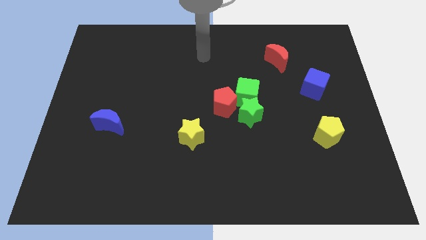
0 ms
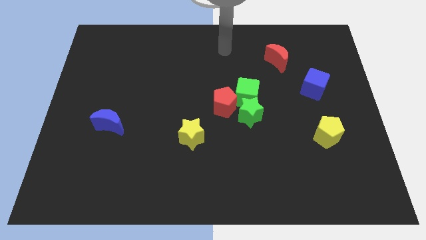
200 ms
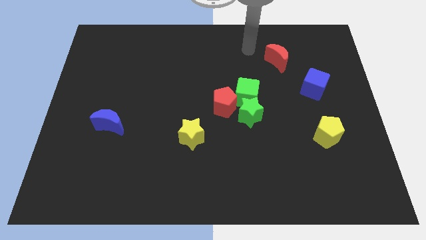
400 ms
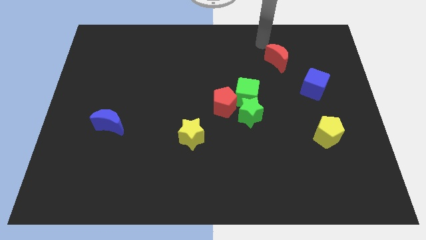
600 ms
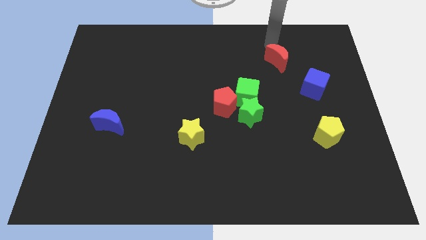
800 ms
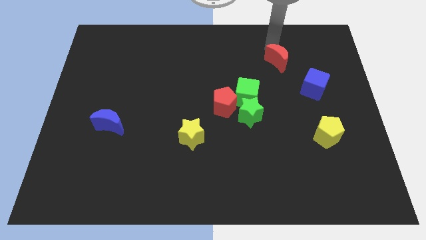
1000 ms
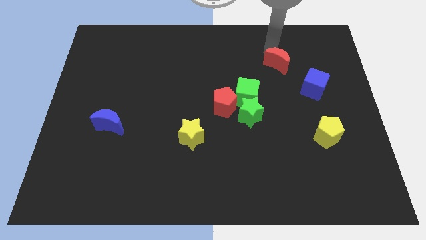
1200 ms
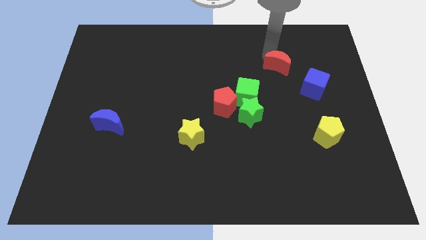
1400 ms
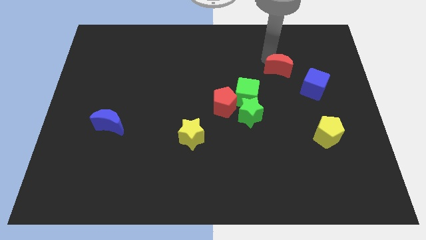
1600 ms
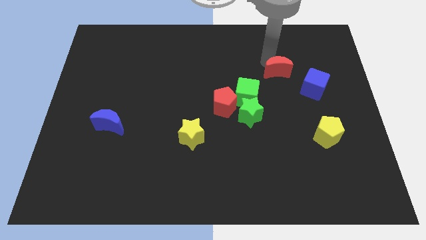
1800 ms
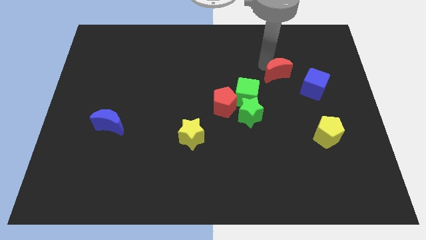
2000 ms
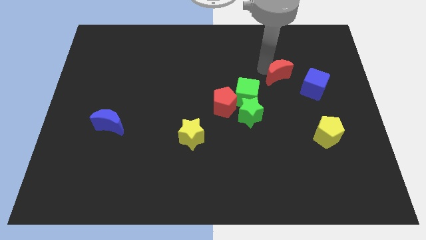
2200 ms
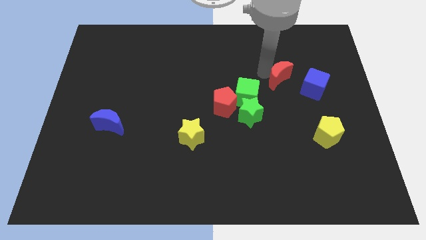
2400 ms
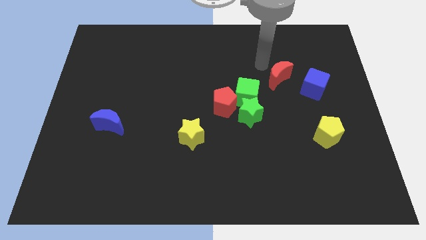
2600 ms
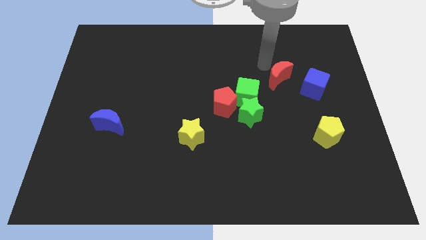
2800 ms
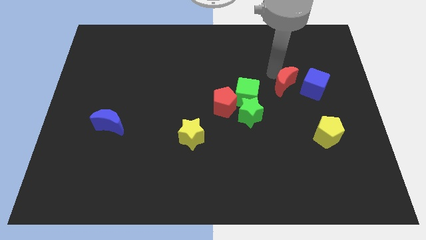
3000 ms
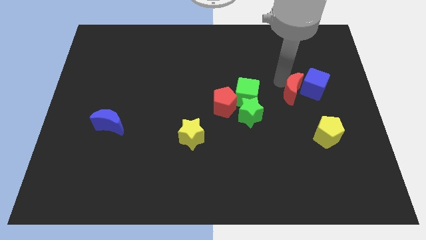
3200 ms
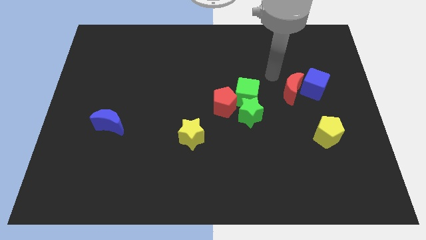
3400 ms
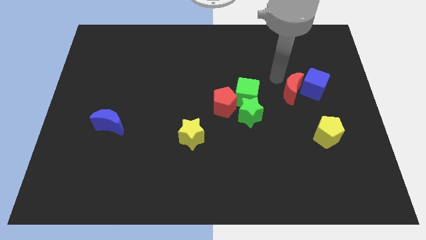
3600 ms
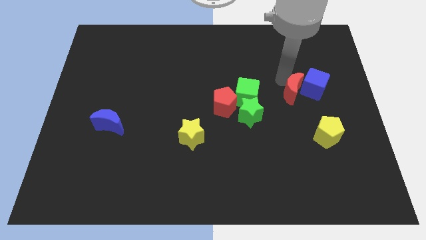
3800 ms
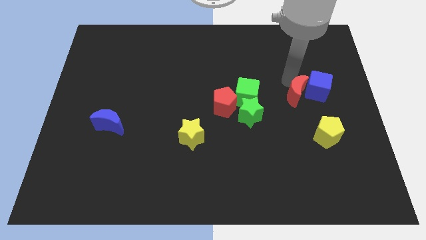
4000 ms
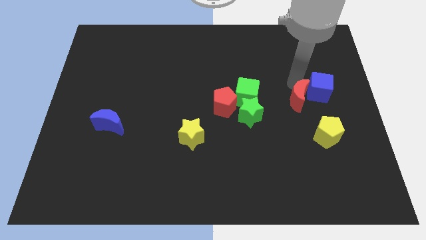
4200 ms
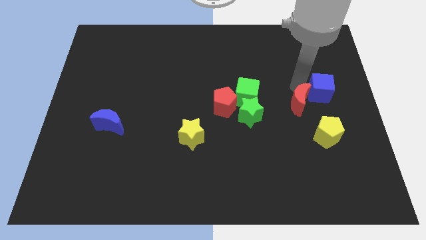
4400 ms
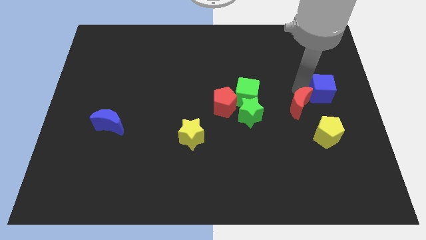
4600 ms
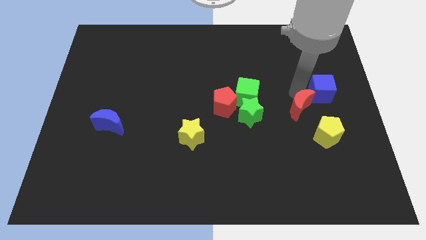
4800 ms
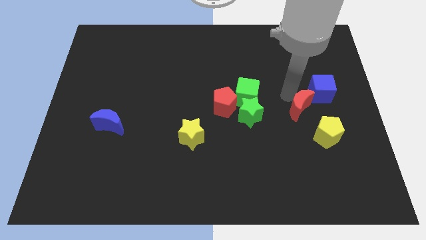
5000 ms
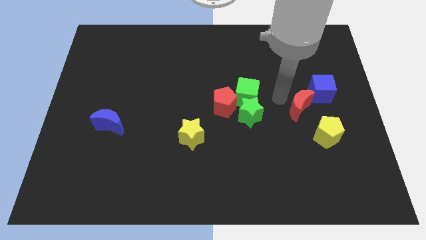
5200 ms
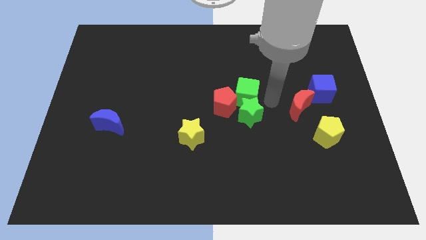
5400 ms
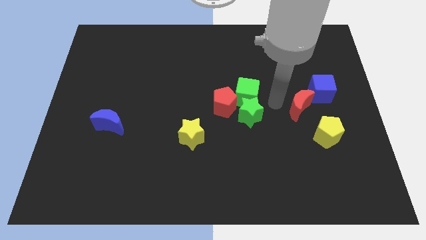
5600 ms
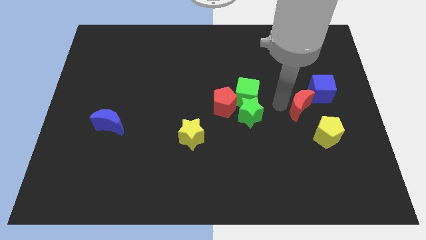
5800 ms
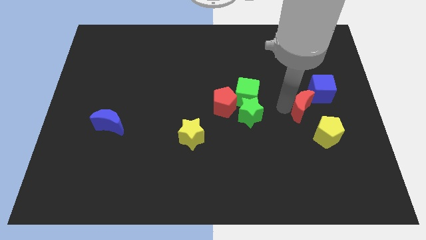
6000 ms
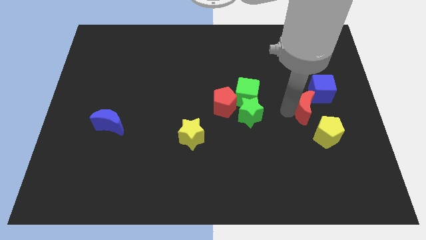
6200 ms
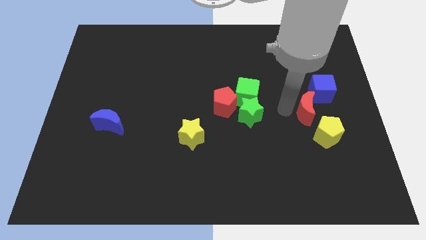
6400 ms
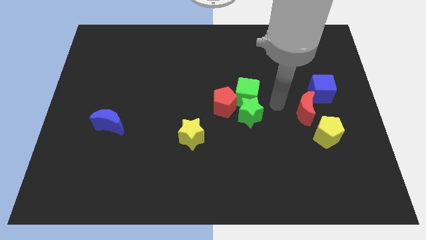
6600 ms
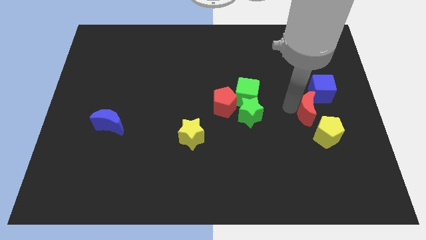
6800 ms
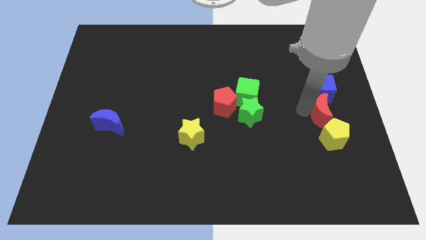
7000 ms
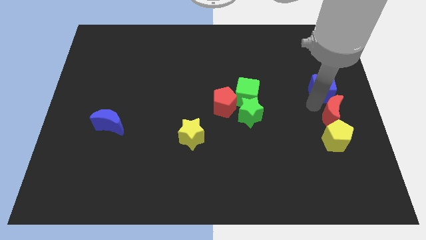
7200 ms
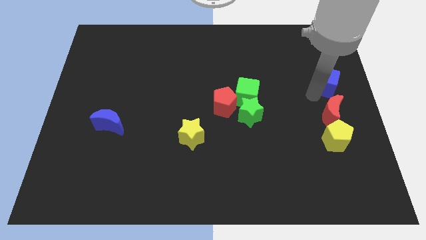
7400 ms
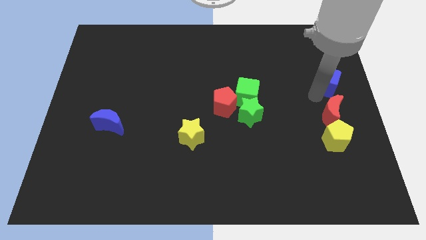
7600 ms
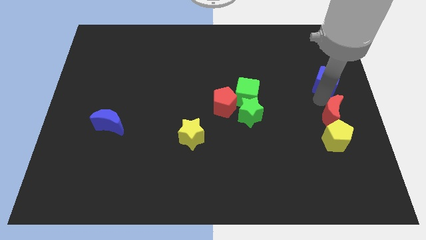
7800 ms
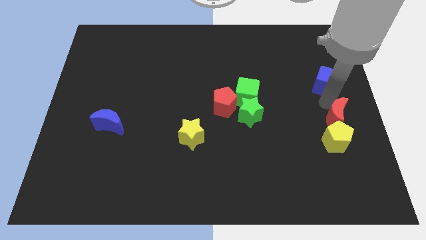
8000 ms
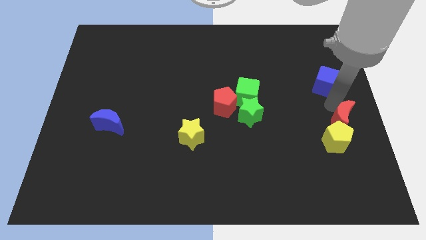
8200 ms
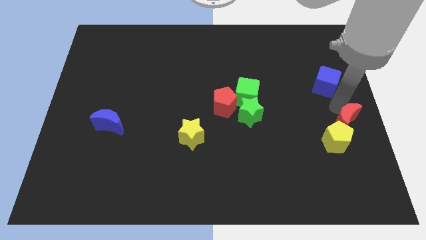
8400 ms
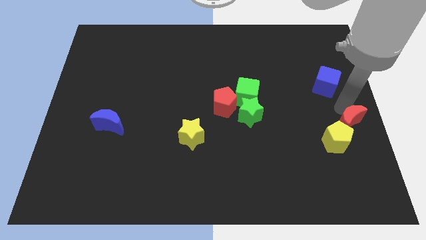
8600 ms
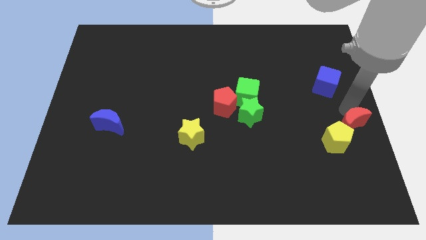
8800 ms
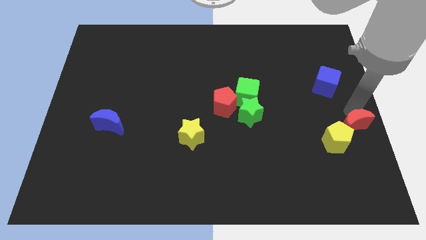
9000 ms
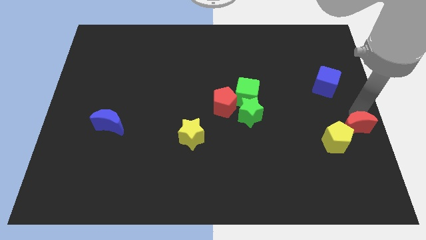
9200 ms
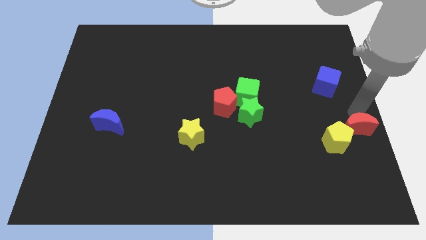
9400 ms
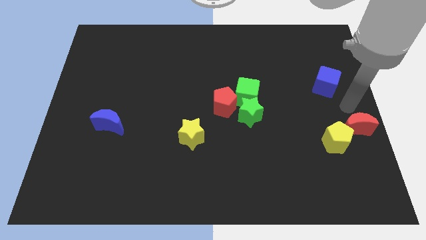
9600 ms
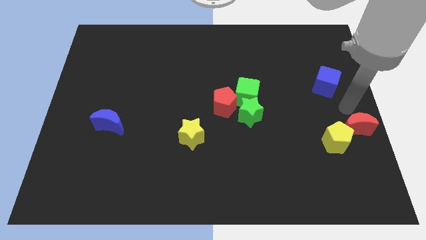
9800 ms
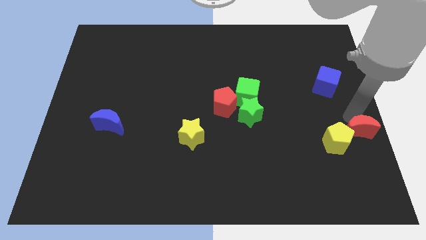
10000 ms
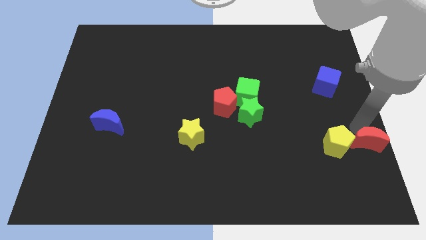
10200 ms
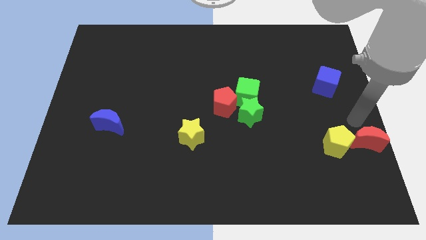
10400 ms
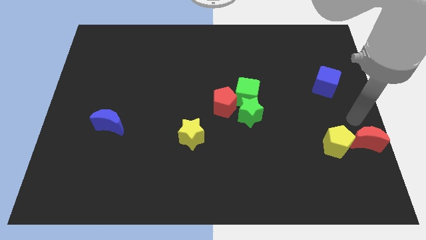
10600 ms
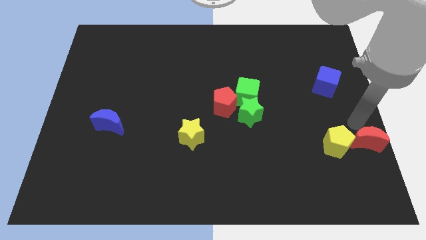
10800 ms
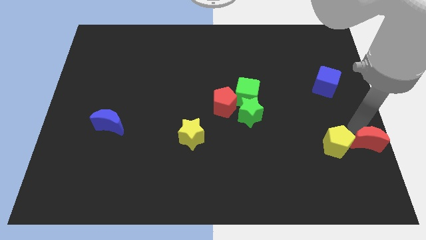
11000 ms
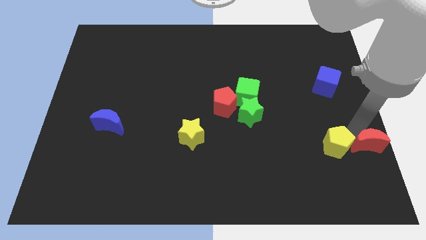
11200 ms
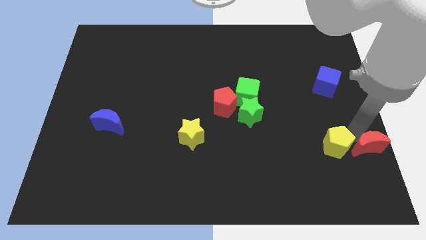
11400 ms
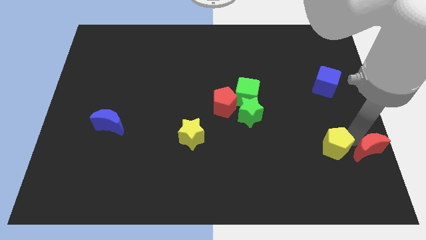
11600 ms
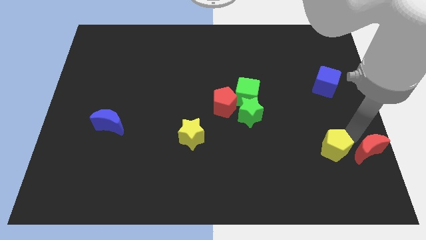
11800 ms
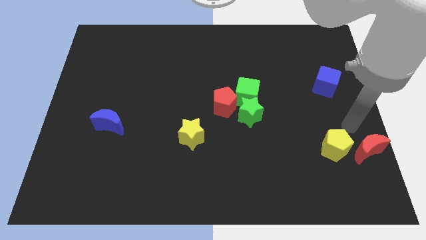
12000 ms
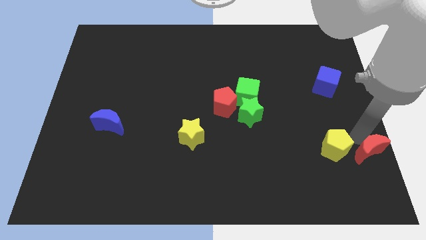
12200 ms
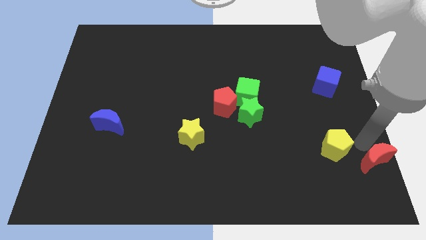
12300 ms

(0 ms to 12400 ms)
slide the red moon to the bottom right
